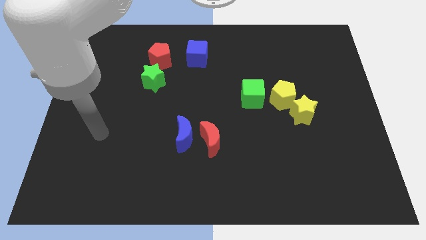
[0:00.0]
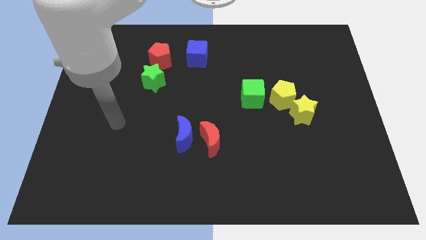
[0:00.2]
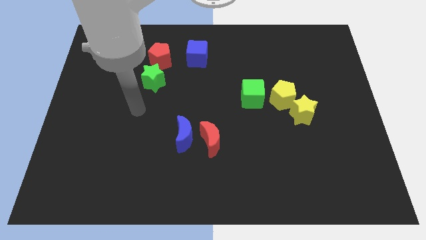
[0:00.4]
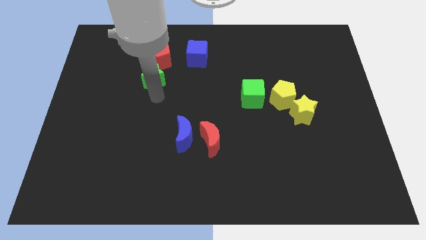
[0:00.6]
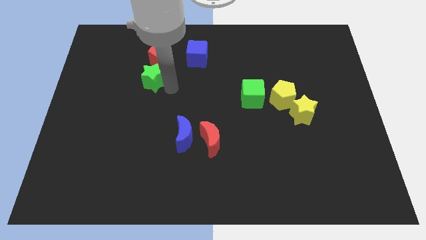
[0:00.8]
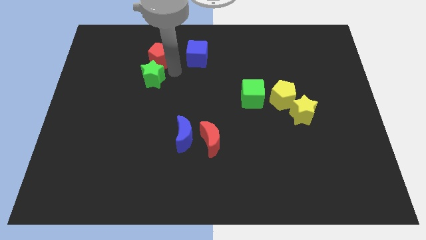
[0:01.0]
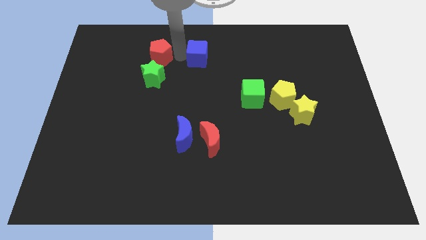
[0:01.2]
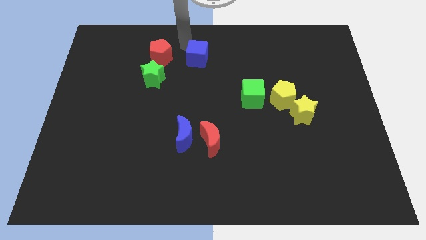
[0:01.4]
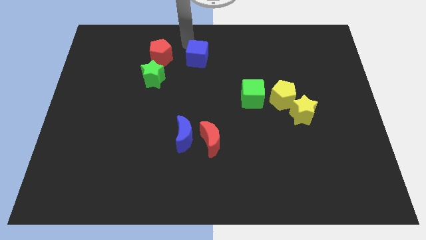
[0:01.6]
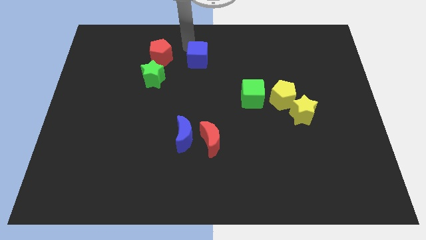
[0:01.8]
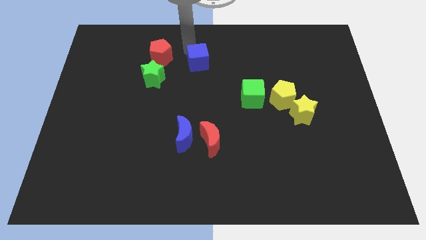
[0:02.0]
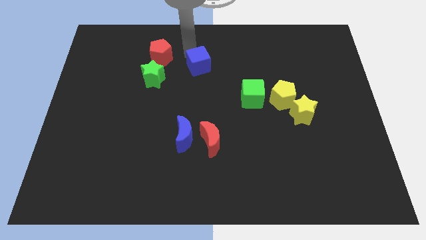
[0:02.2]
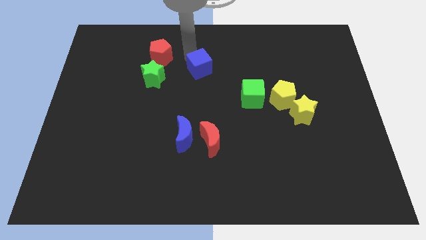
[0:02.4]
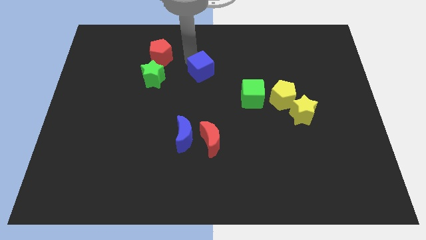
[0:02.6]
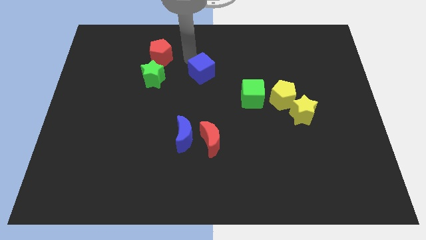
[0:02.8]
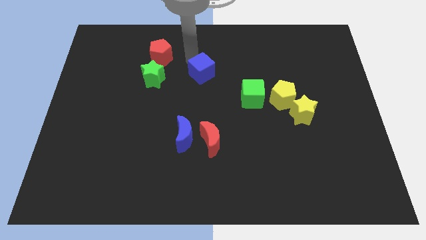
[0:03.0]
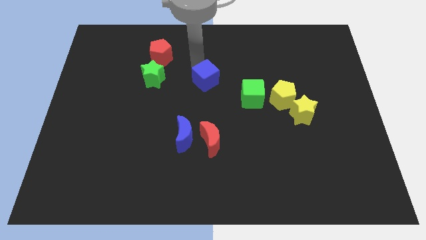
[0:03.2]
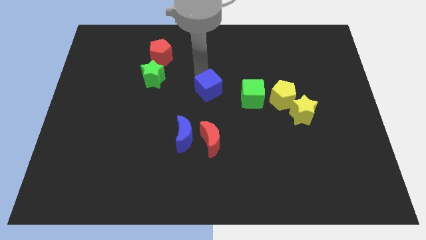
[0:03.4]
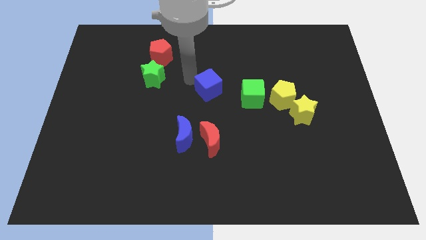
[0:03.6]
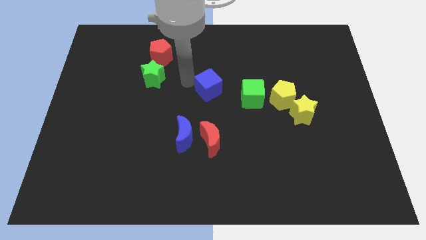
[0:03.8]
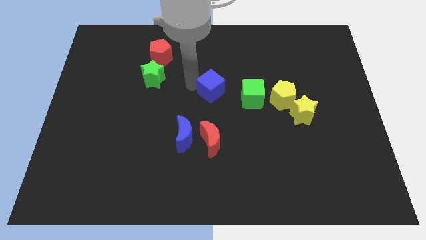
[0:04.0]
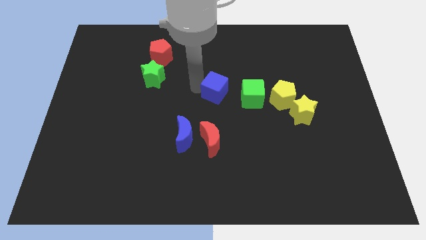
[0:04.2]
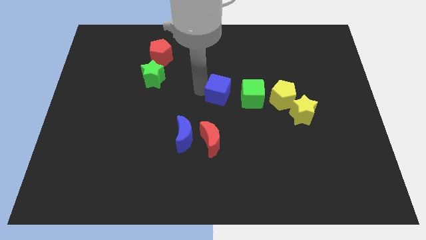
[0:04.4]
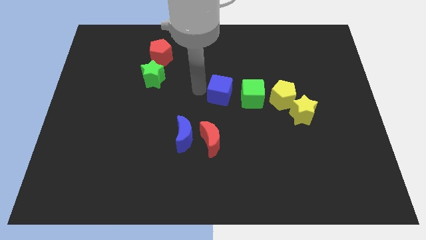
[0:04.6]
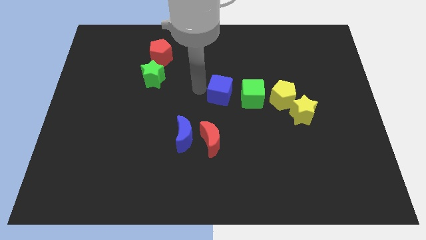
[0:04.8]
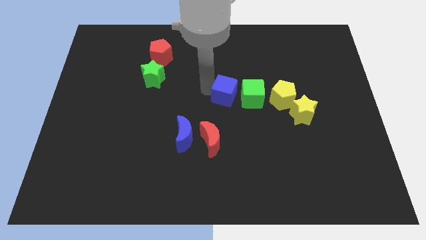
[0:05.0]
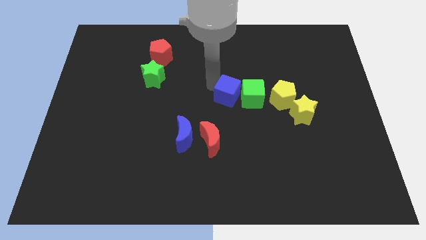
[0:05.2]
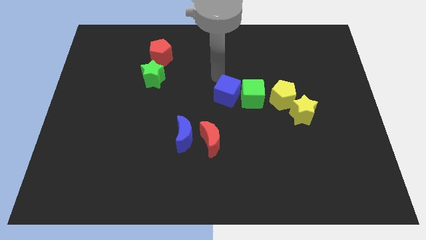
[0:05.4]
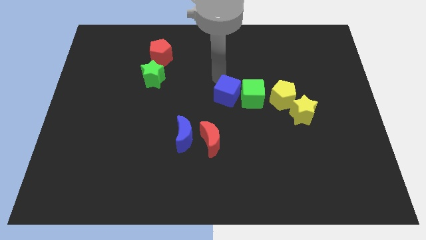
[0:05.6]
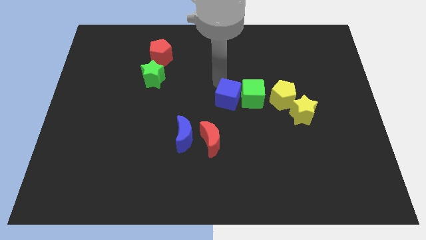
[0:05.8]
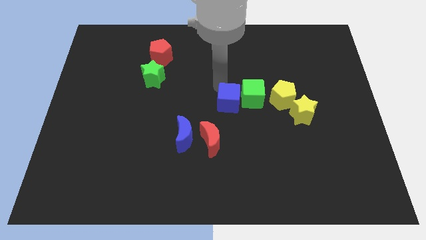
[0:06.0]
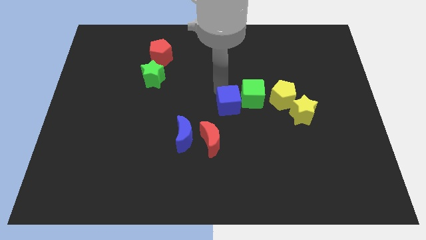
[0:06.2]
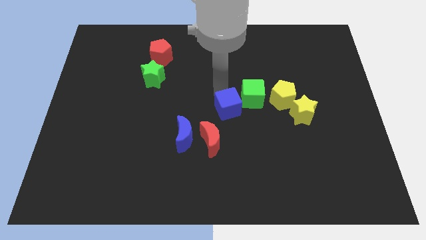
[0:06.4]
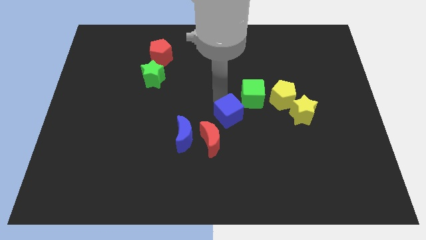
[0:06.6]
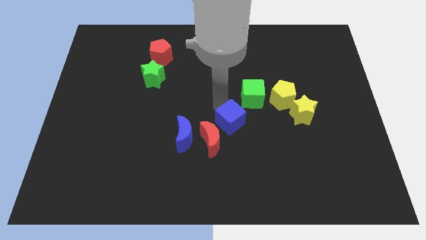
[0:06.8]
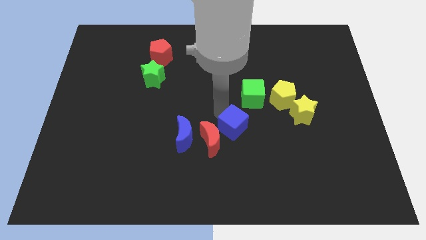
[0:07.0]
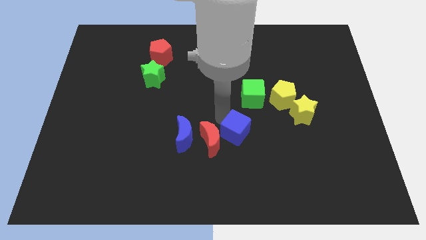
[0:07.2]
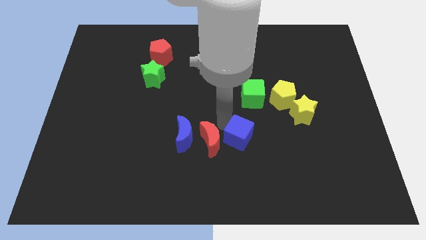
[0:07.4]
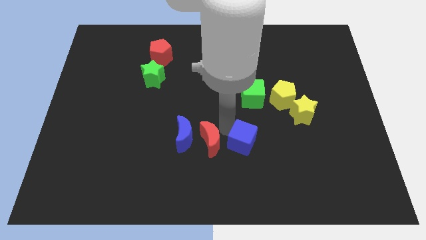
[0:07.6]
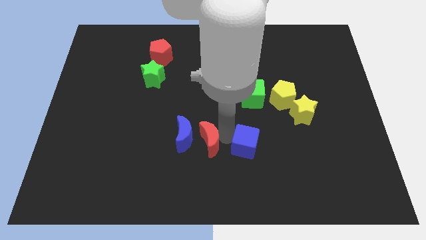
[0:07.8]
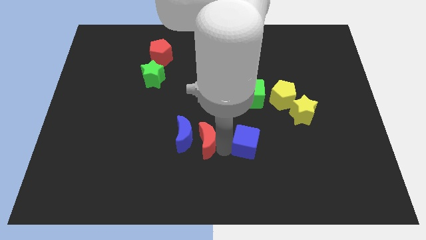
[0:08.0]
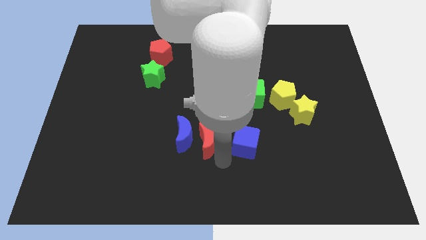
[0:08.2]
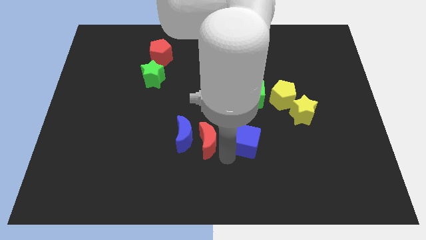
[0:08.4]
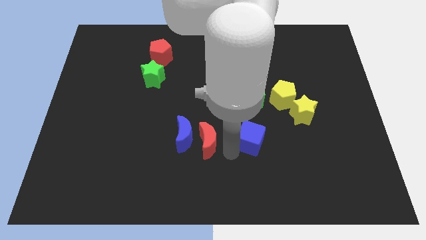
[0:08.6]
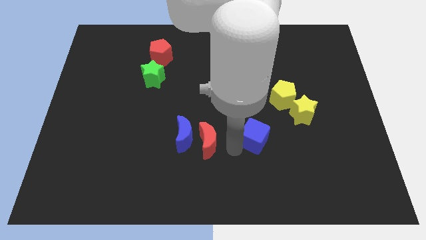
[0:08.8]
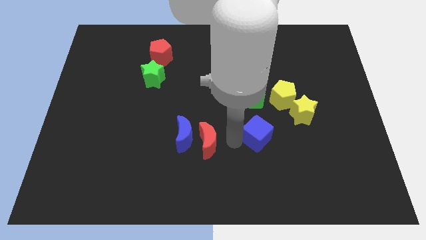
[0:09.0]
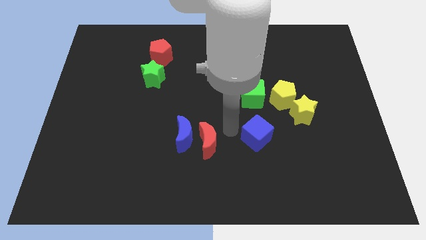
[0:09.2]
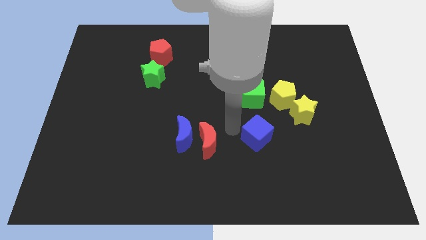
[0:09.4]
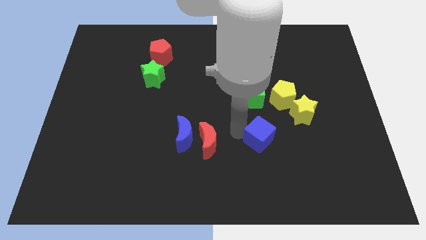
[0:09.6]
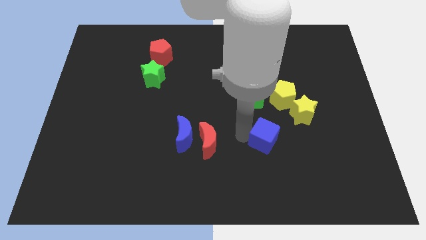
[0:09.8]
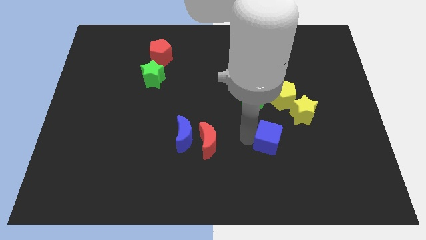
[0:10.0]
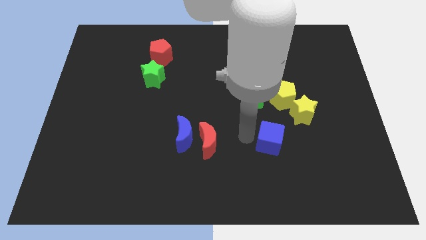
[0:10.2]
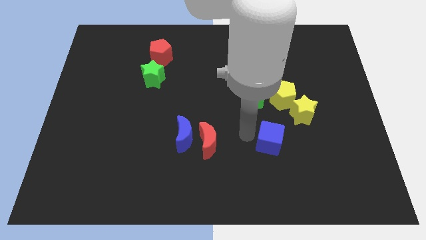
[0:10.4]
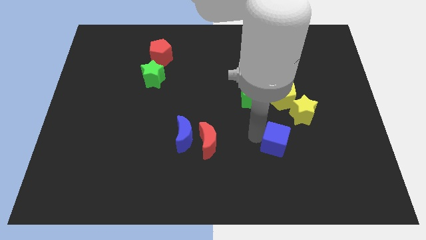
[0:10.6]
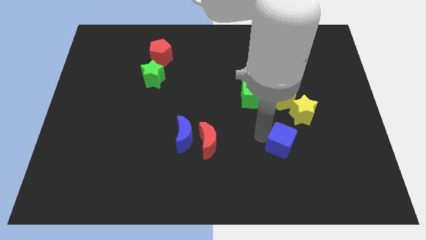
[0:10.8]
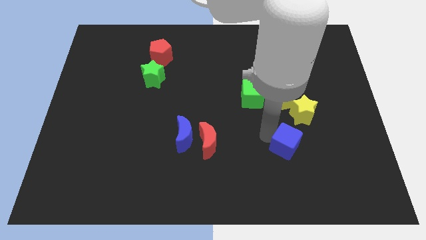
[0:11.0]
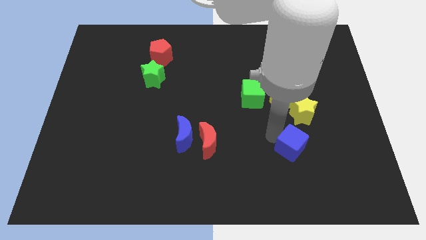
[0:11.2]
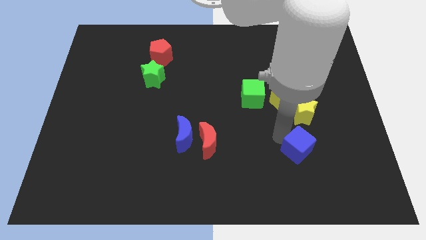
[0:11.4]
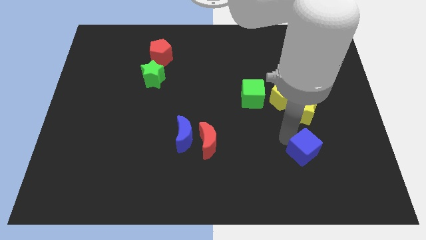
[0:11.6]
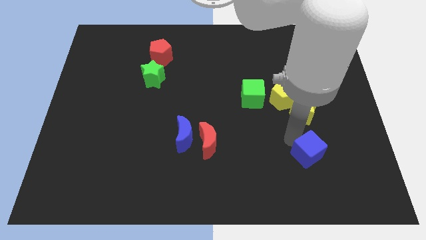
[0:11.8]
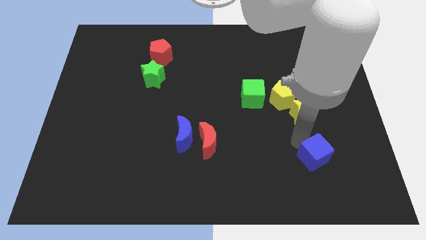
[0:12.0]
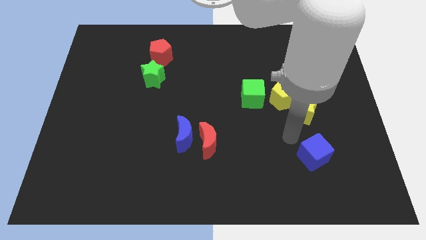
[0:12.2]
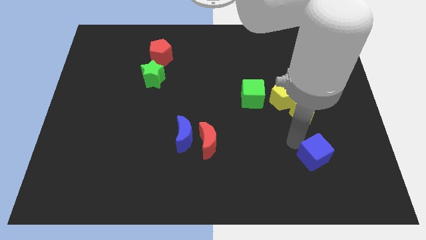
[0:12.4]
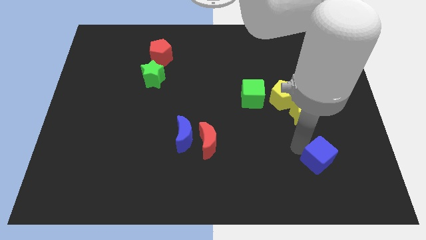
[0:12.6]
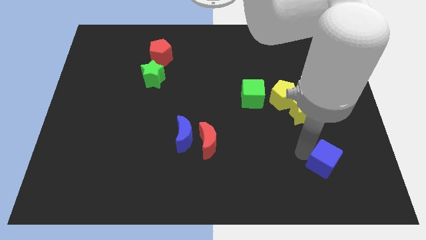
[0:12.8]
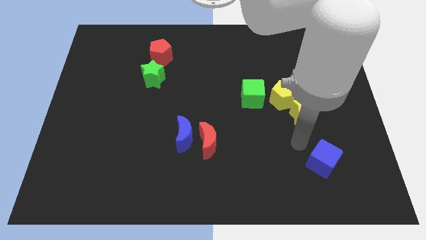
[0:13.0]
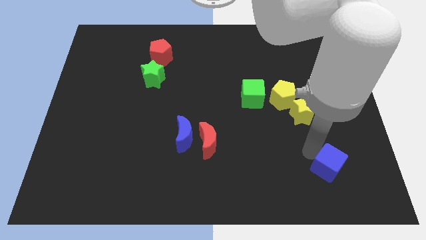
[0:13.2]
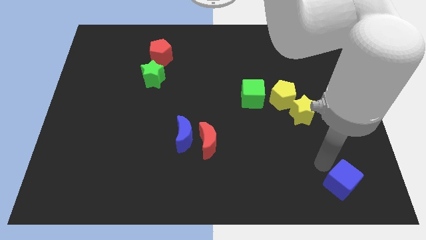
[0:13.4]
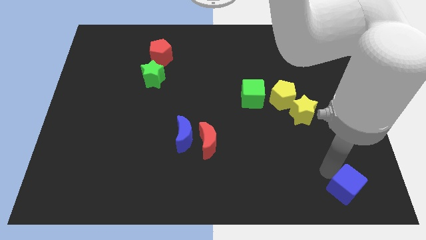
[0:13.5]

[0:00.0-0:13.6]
put the blue cube to the bottom right corner
